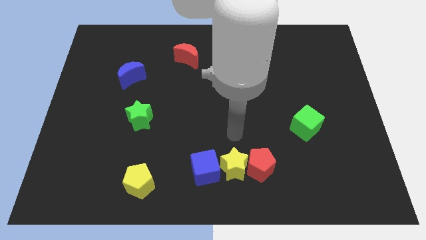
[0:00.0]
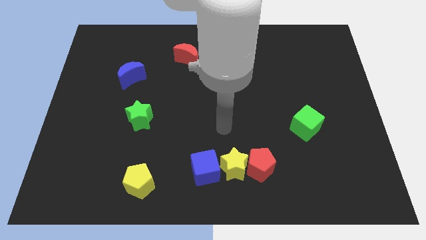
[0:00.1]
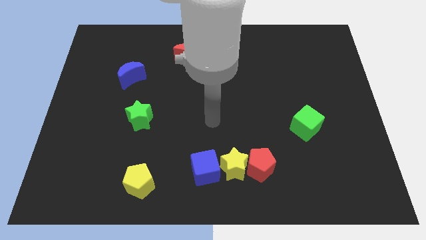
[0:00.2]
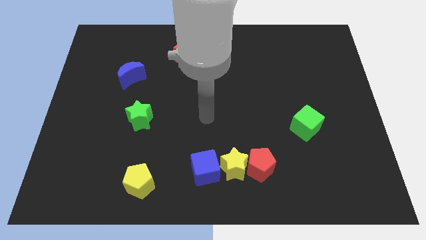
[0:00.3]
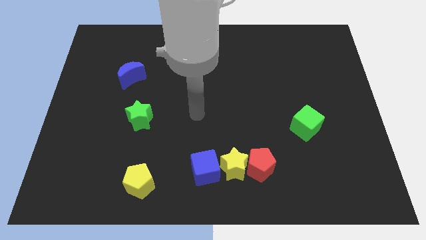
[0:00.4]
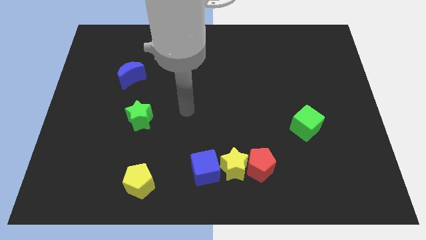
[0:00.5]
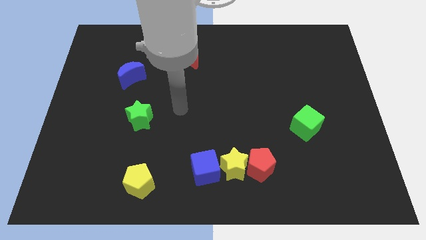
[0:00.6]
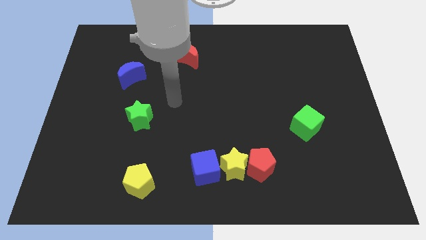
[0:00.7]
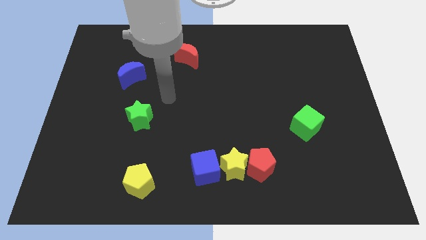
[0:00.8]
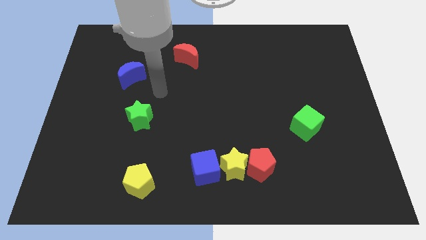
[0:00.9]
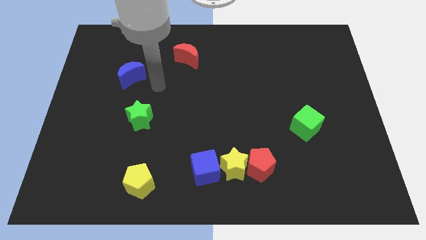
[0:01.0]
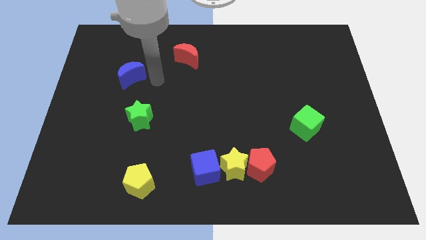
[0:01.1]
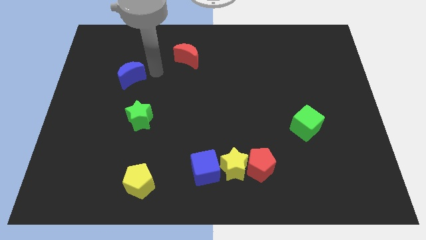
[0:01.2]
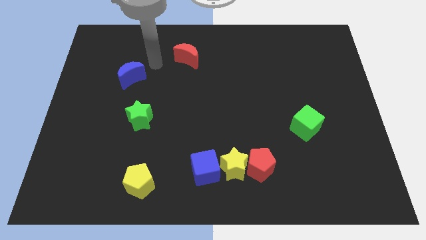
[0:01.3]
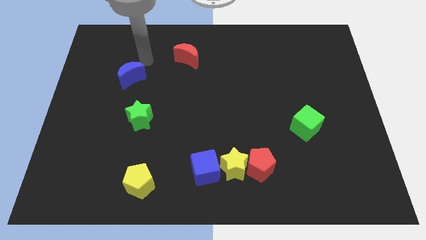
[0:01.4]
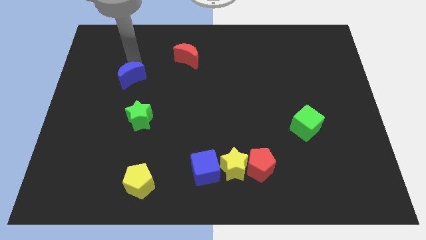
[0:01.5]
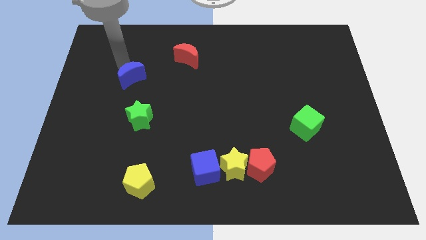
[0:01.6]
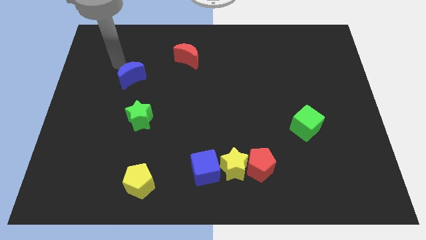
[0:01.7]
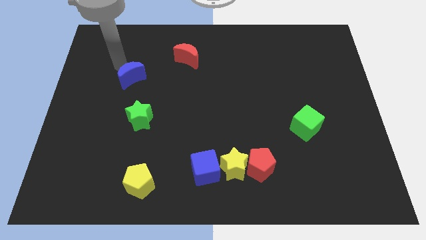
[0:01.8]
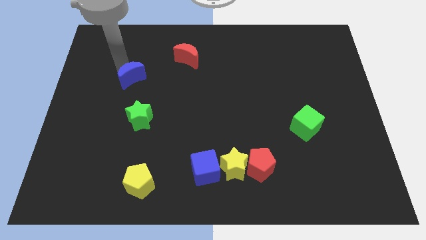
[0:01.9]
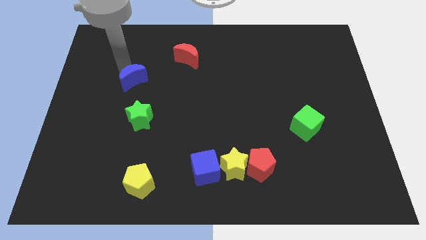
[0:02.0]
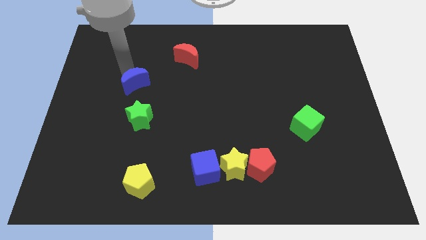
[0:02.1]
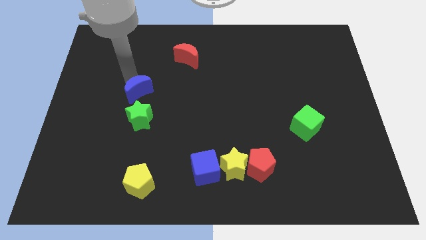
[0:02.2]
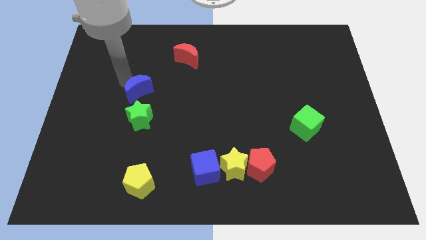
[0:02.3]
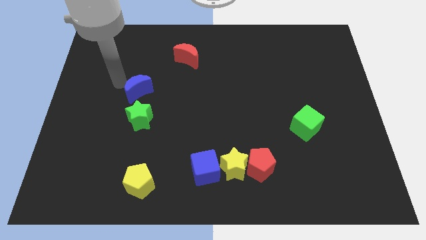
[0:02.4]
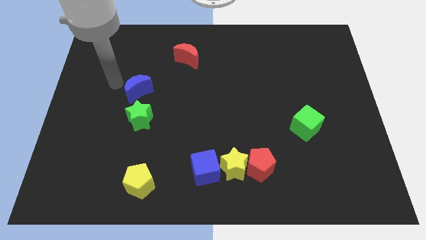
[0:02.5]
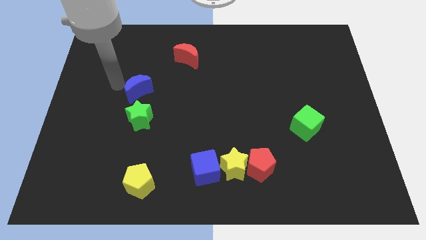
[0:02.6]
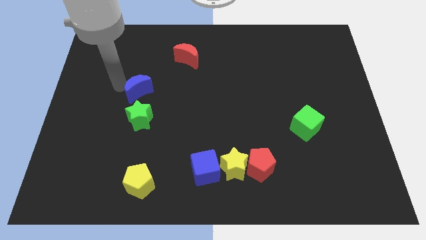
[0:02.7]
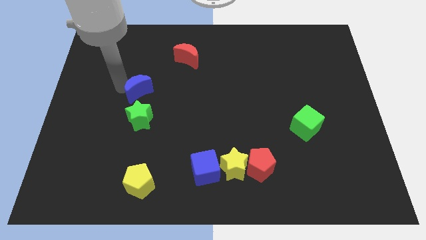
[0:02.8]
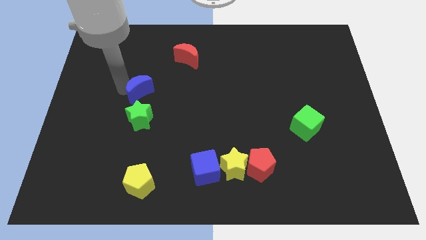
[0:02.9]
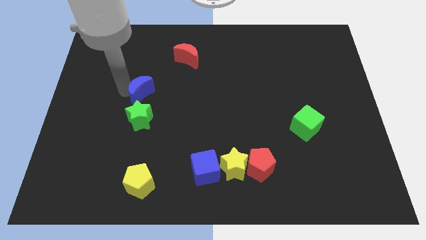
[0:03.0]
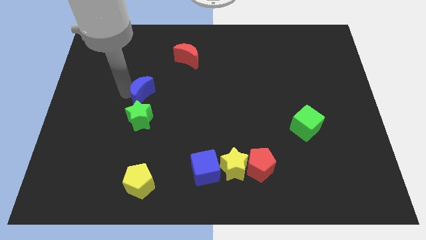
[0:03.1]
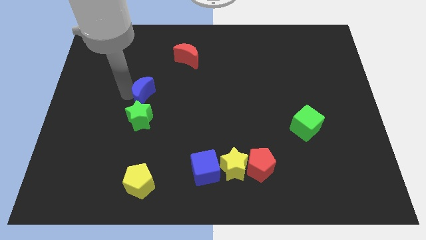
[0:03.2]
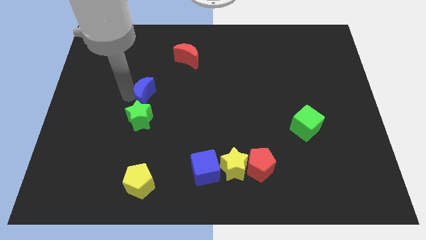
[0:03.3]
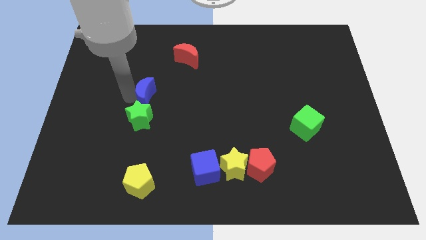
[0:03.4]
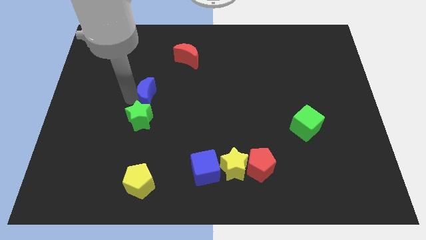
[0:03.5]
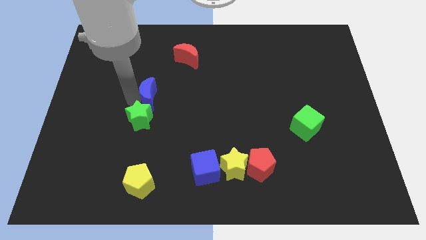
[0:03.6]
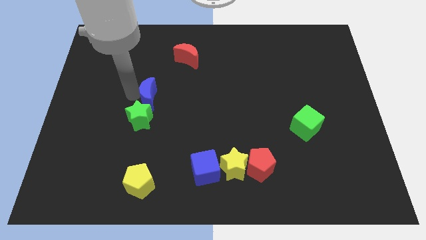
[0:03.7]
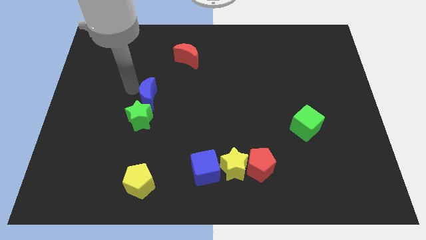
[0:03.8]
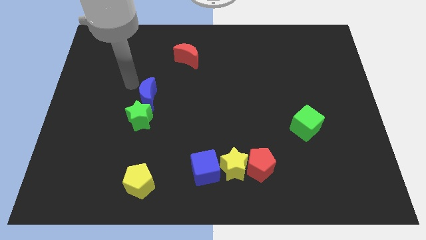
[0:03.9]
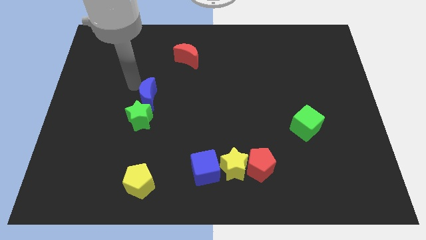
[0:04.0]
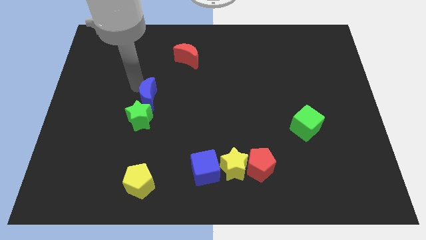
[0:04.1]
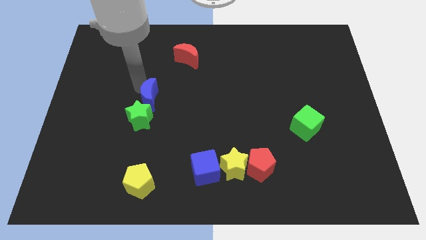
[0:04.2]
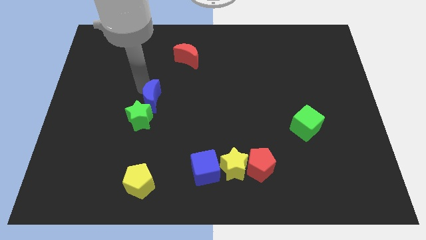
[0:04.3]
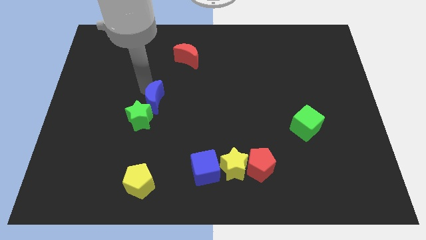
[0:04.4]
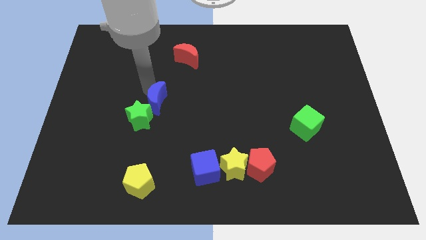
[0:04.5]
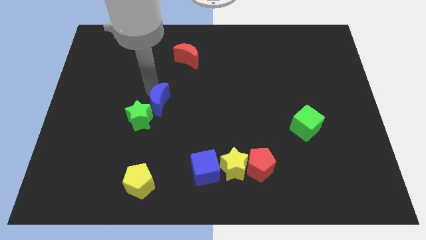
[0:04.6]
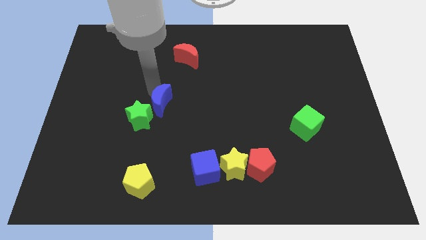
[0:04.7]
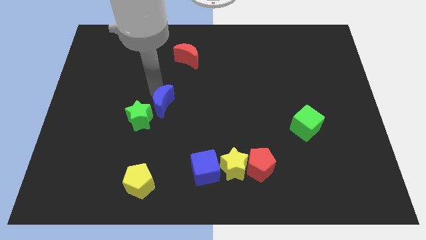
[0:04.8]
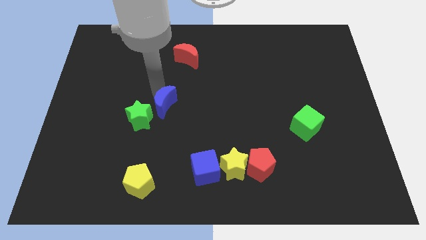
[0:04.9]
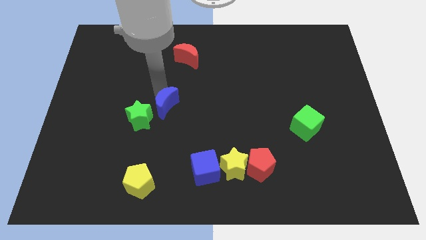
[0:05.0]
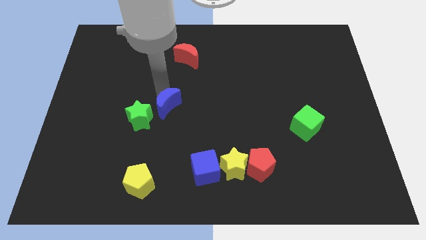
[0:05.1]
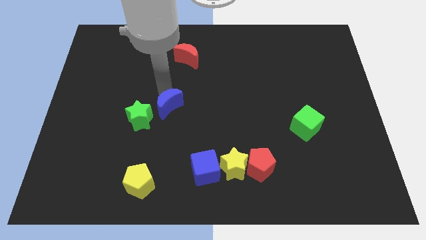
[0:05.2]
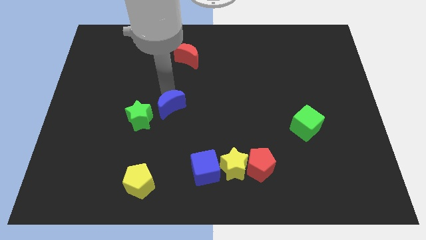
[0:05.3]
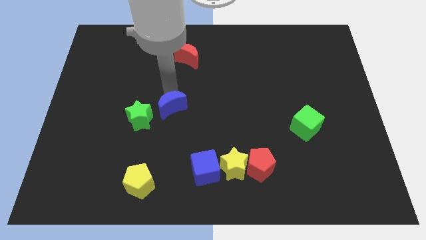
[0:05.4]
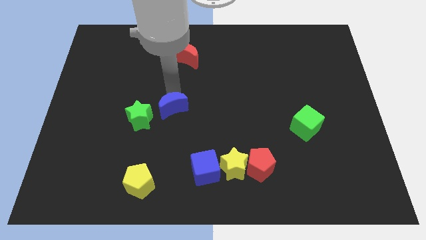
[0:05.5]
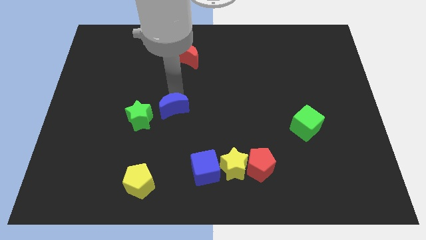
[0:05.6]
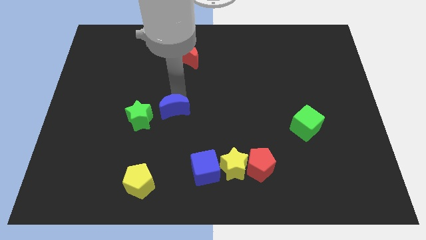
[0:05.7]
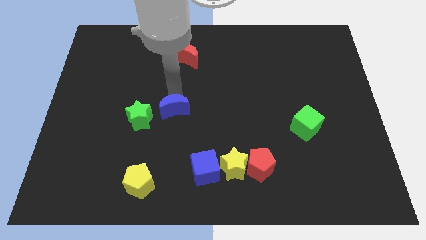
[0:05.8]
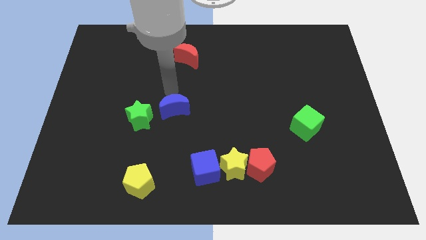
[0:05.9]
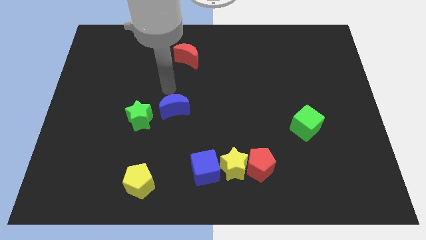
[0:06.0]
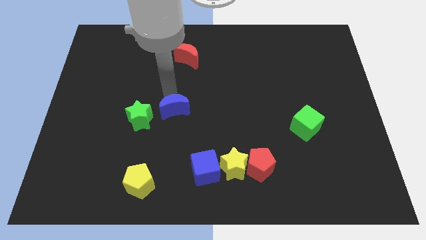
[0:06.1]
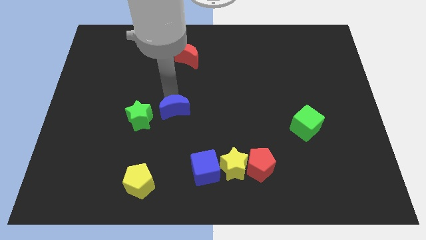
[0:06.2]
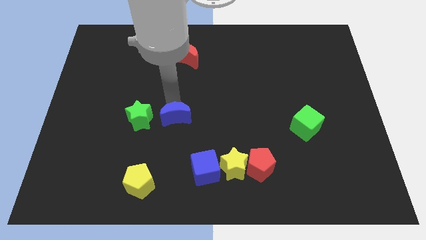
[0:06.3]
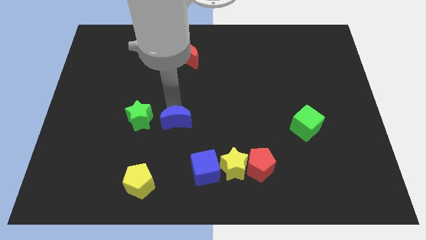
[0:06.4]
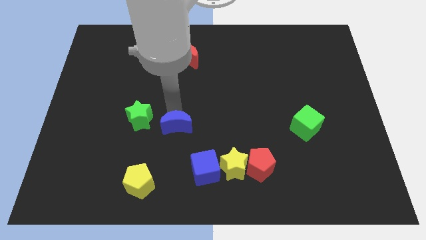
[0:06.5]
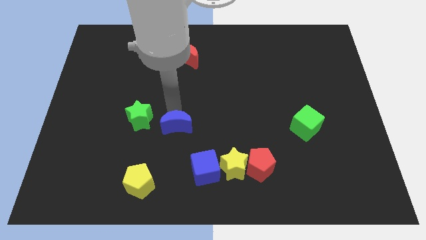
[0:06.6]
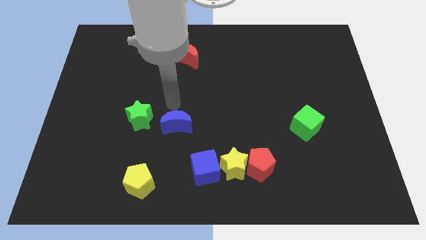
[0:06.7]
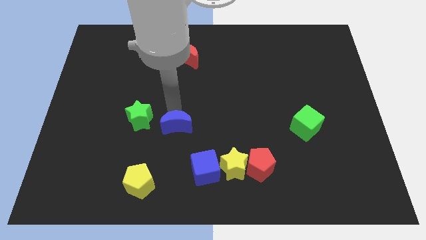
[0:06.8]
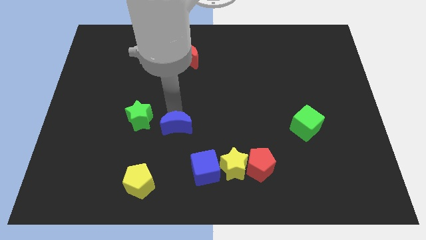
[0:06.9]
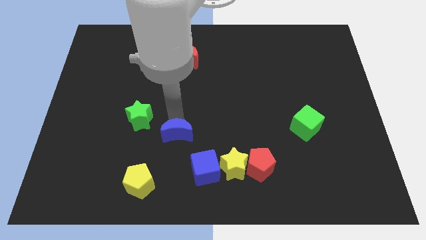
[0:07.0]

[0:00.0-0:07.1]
push the blue moon to the top left of the blue cube

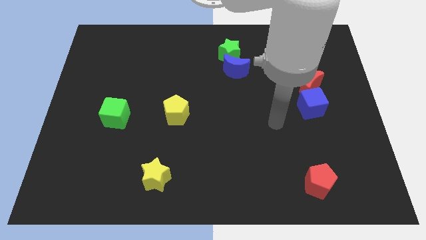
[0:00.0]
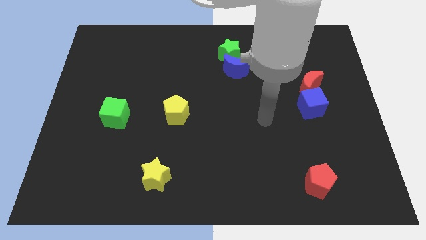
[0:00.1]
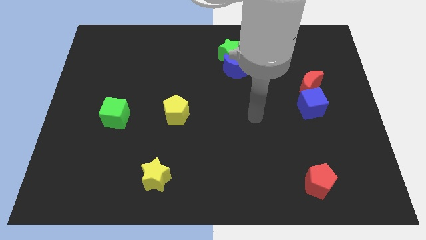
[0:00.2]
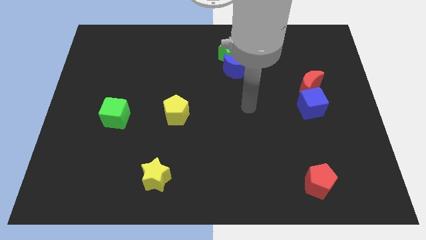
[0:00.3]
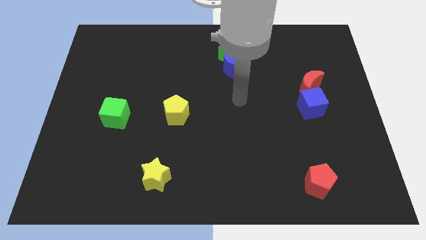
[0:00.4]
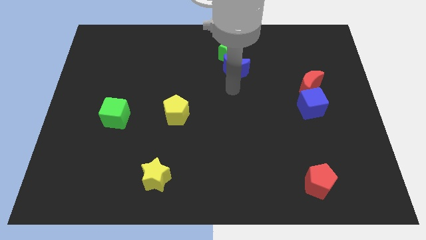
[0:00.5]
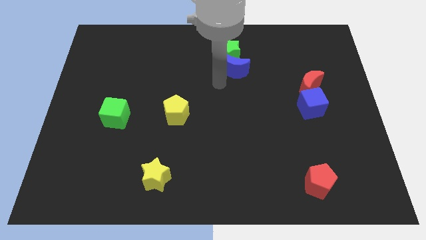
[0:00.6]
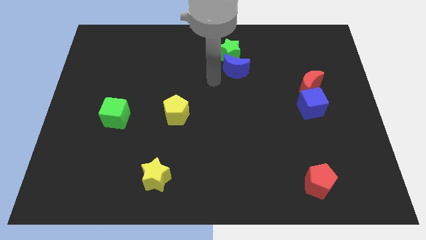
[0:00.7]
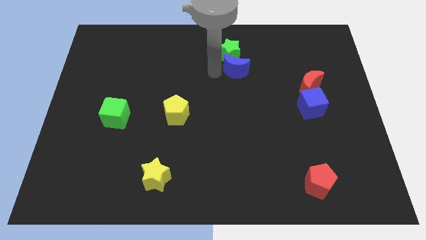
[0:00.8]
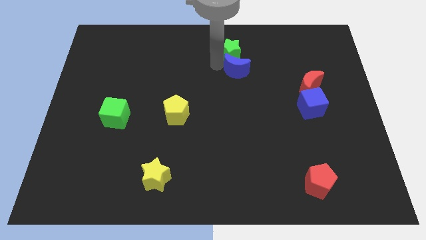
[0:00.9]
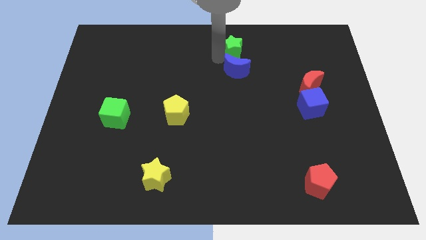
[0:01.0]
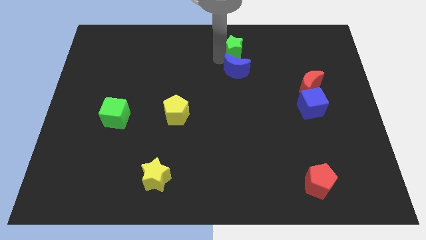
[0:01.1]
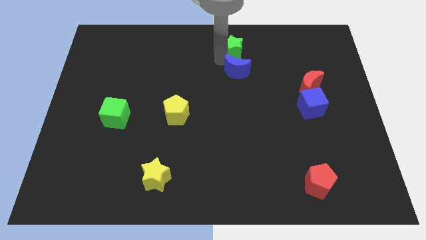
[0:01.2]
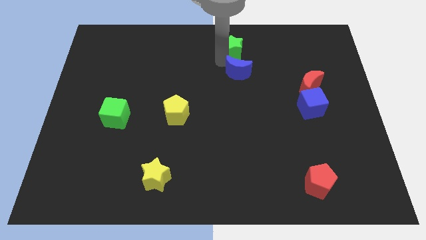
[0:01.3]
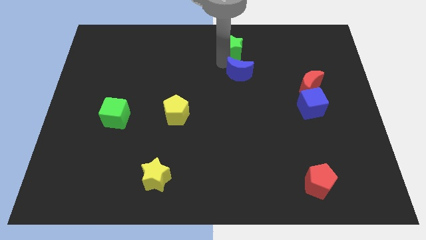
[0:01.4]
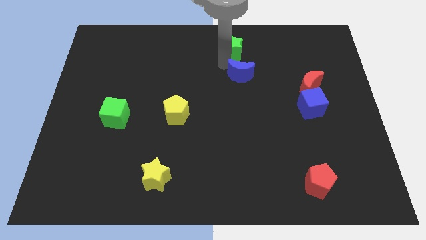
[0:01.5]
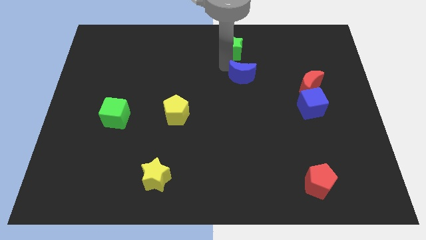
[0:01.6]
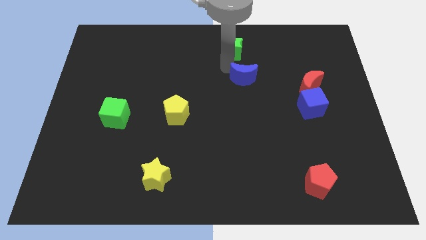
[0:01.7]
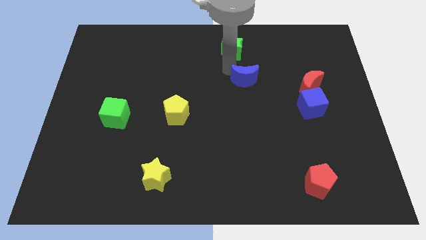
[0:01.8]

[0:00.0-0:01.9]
move the blue moon left of the red moon
